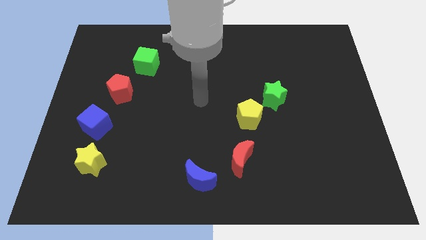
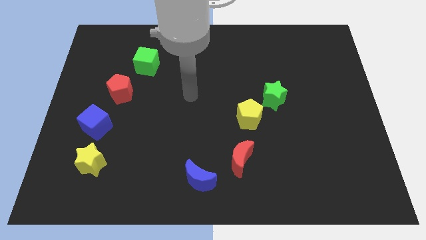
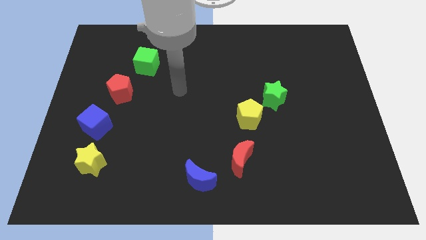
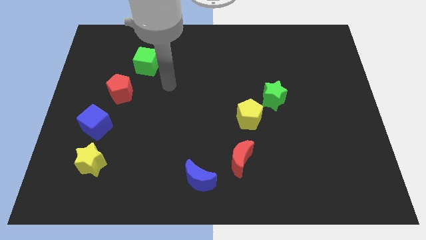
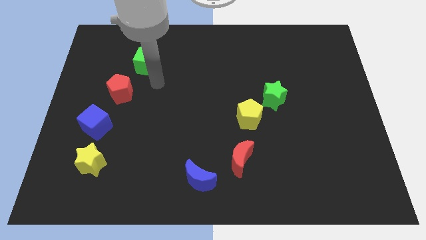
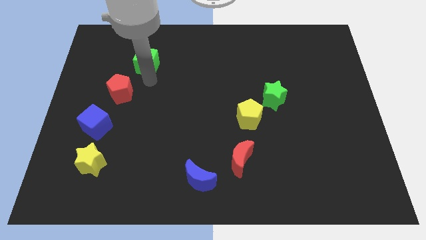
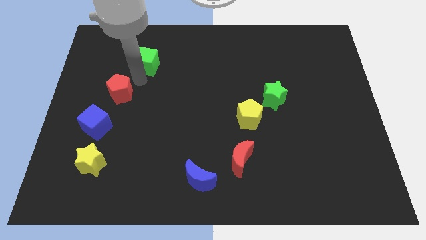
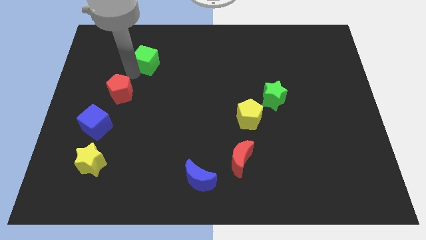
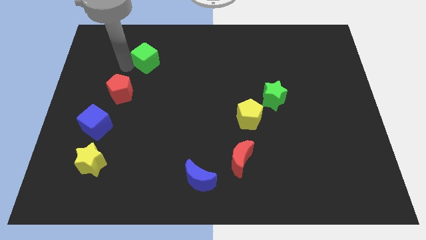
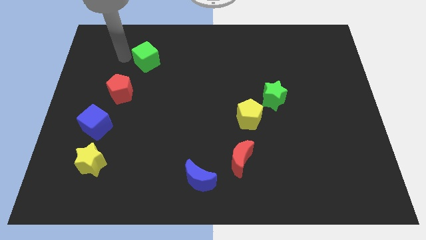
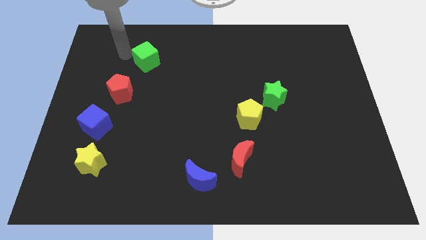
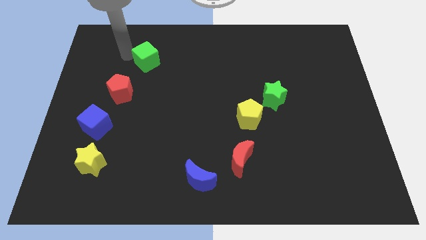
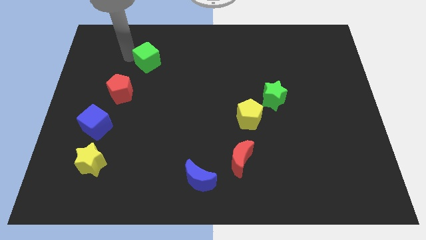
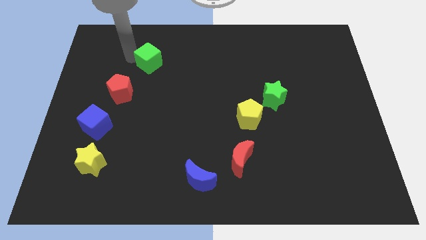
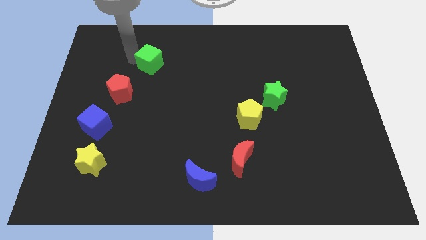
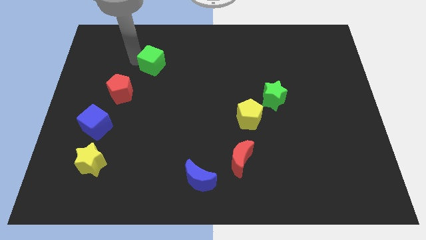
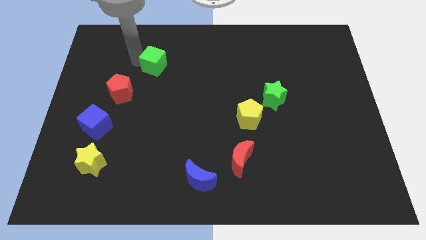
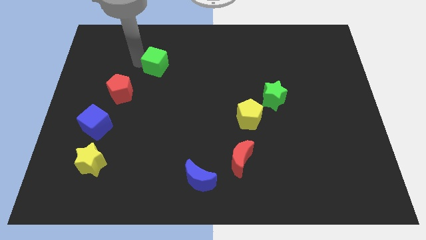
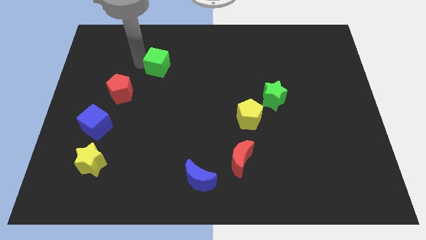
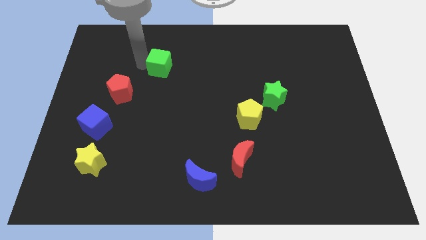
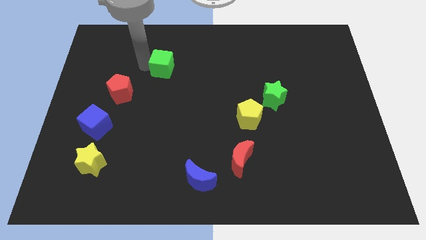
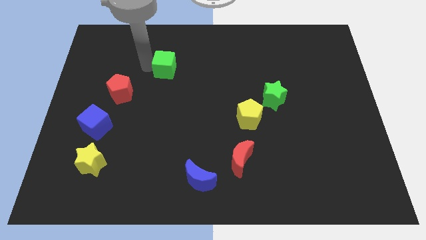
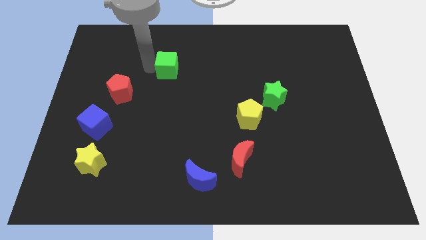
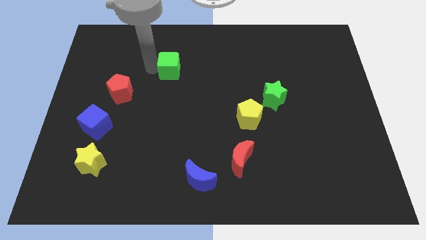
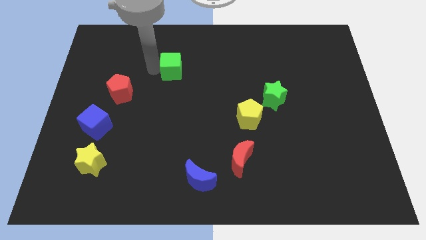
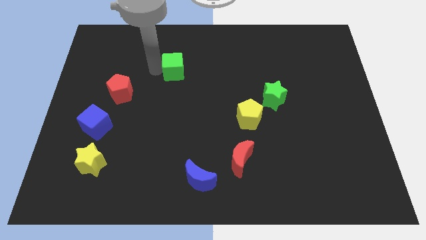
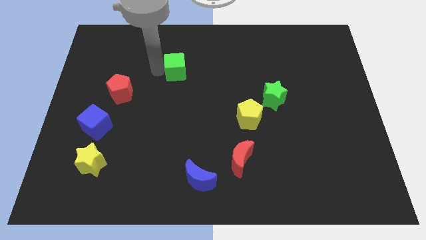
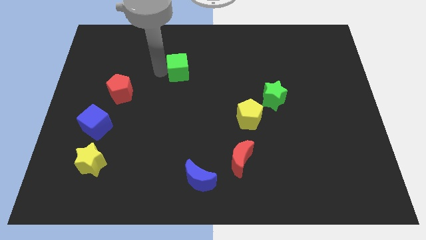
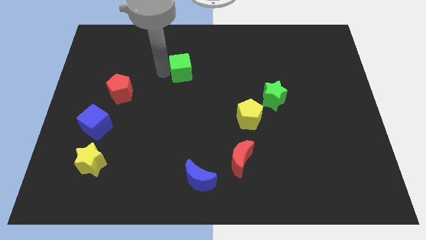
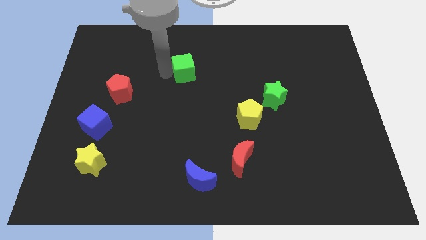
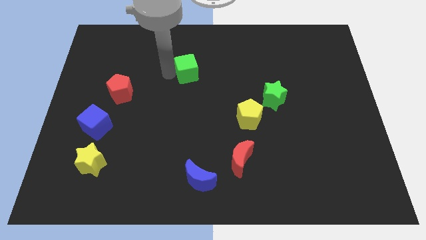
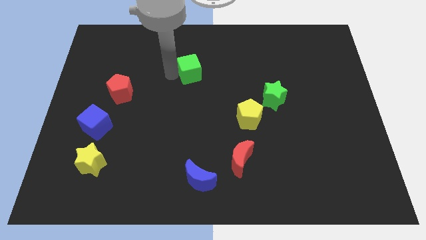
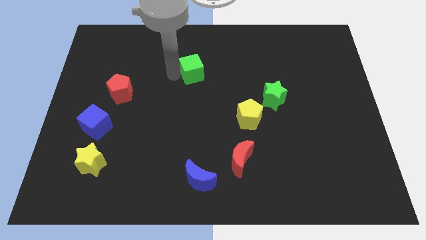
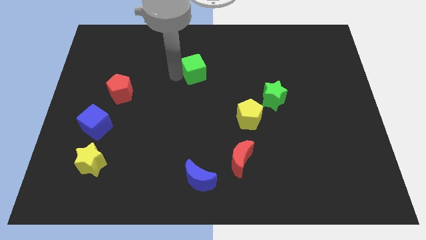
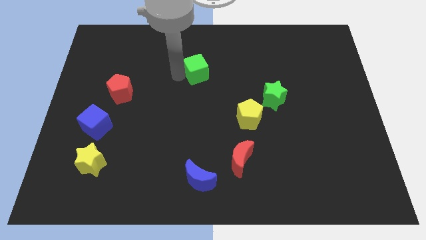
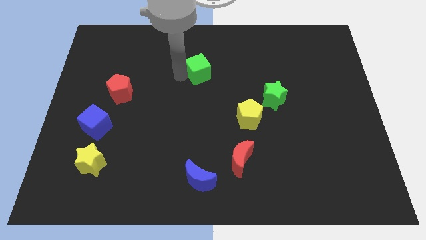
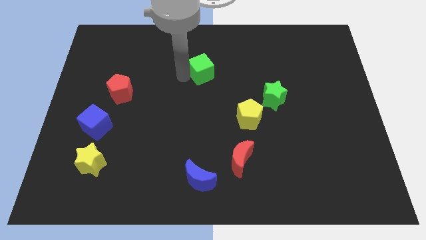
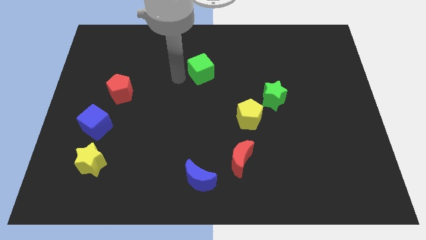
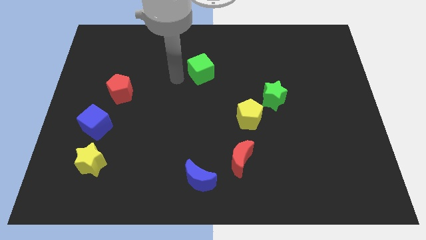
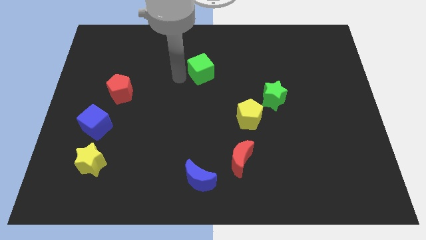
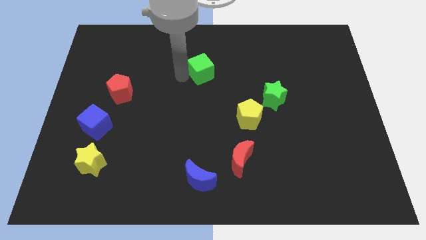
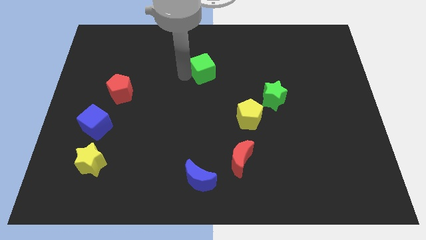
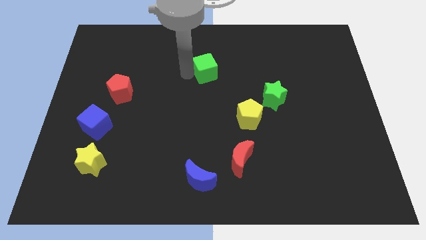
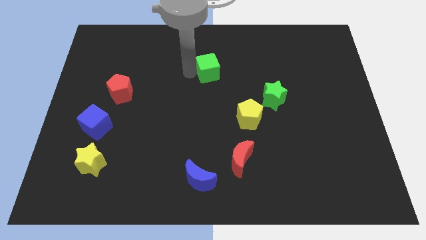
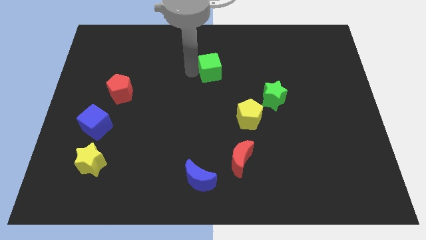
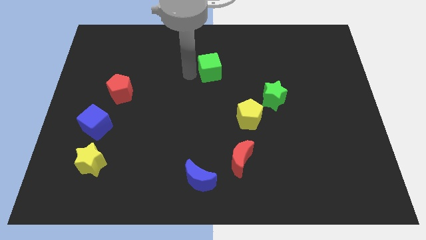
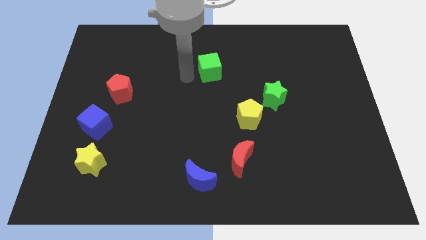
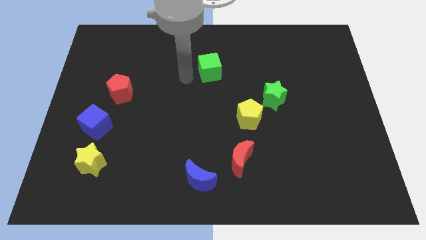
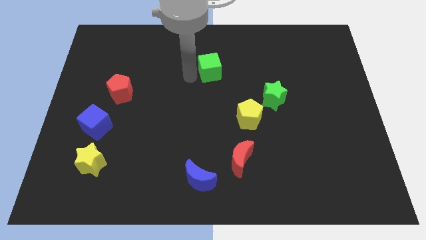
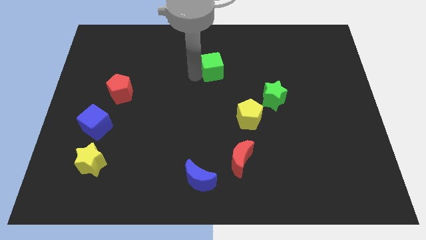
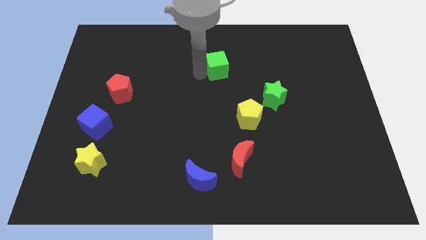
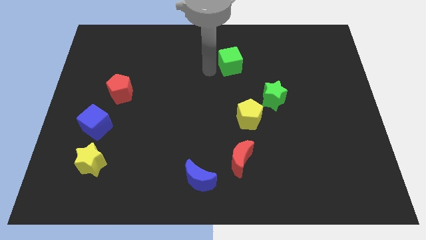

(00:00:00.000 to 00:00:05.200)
move the green cube to the right

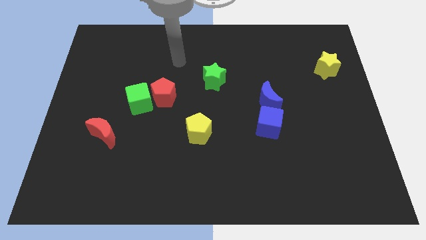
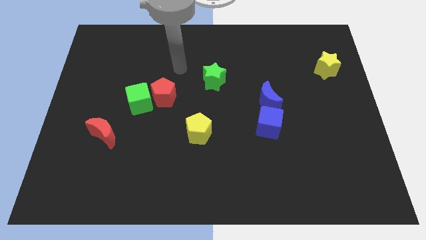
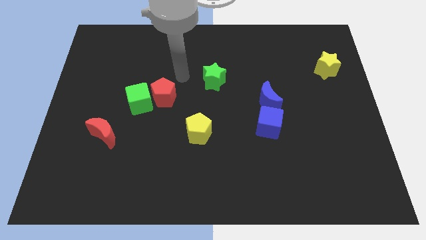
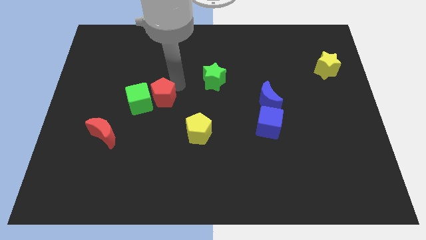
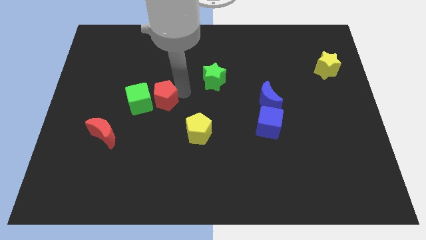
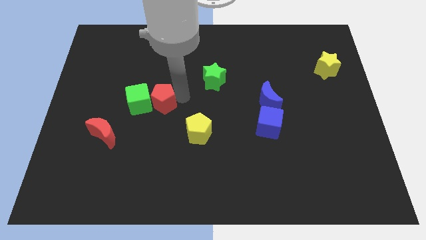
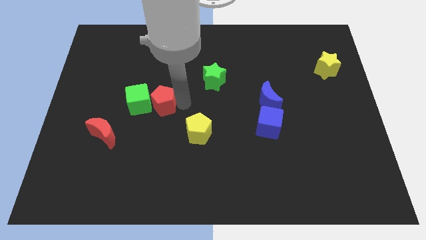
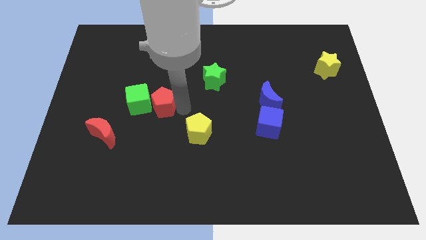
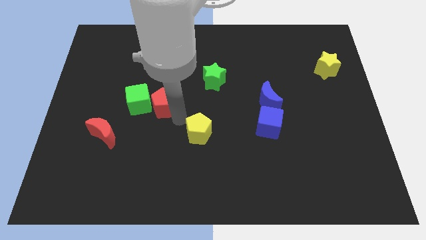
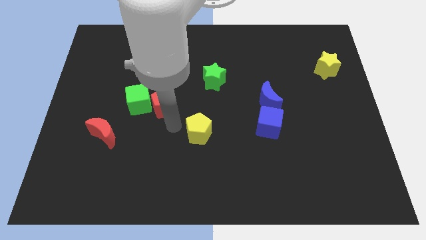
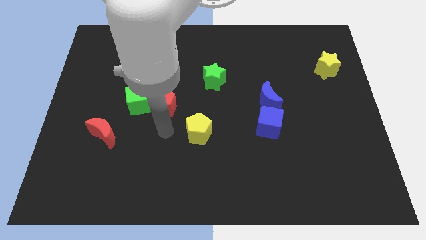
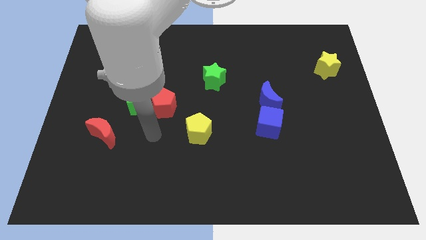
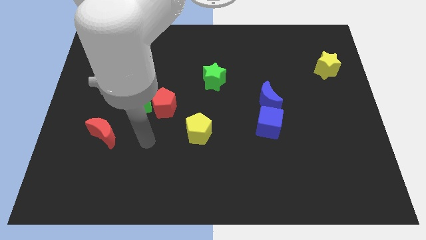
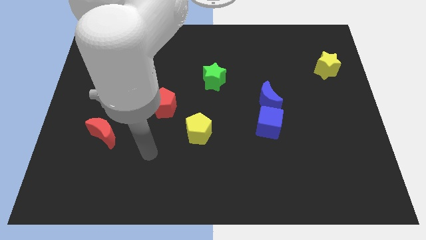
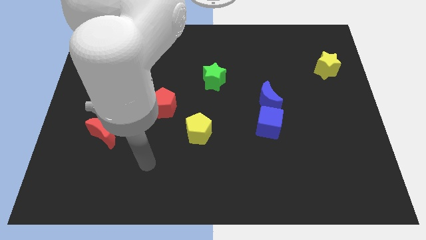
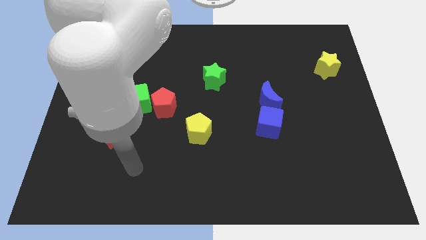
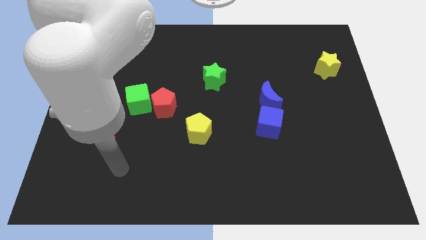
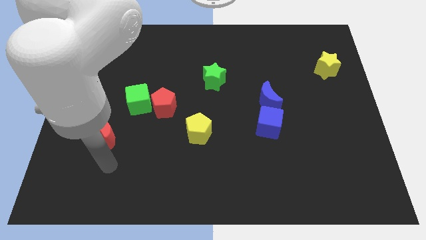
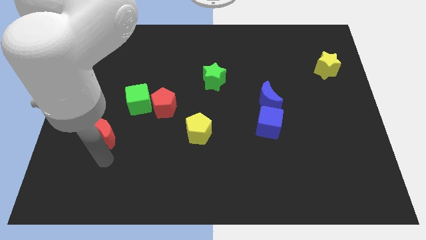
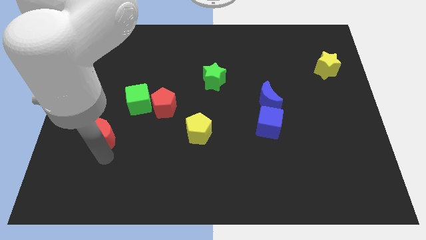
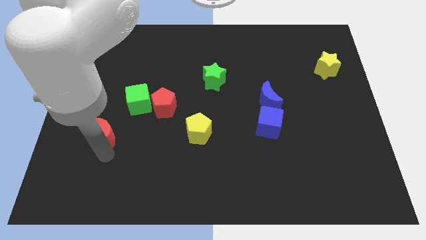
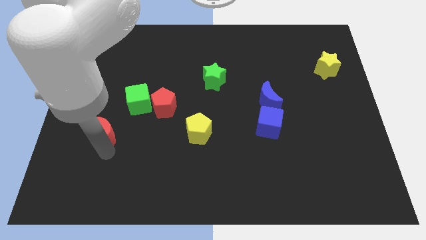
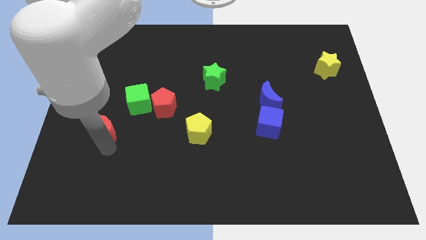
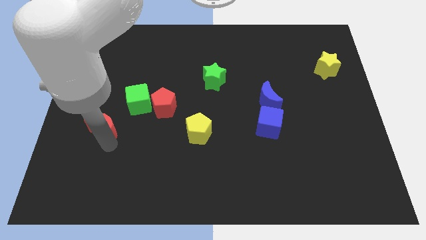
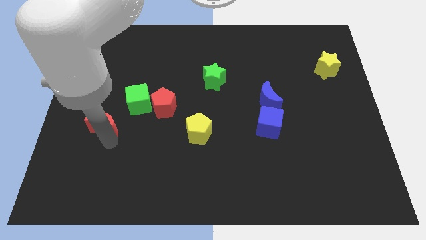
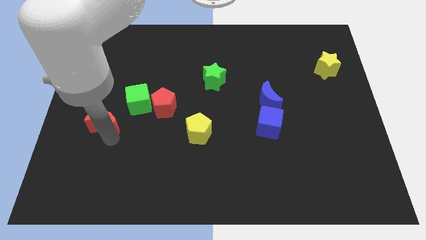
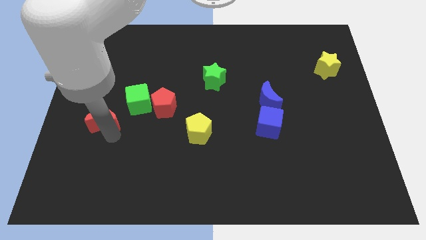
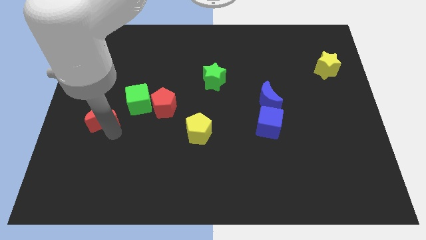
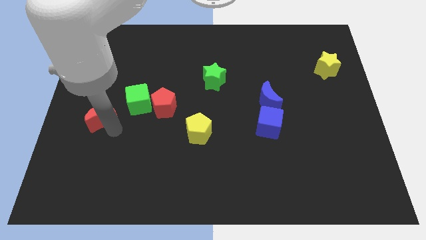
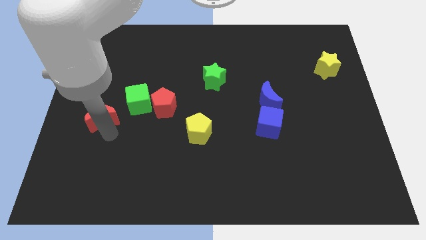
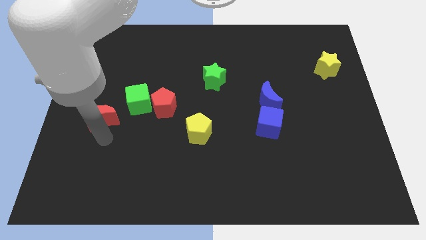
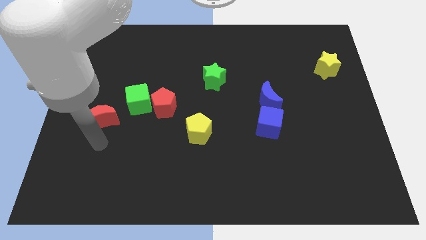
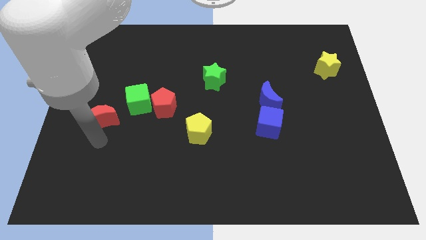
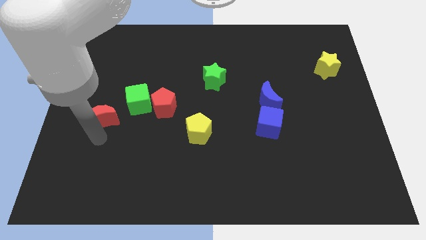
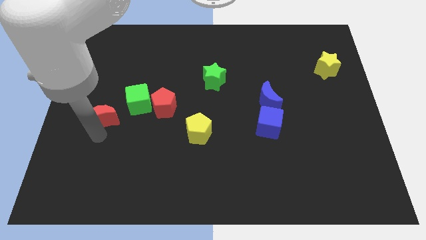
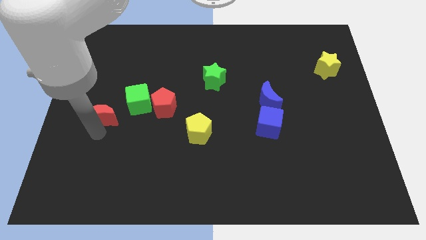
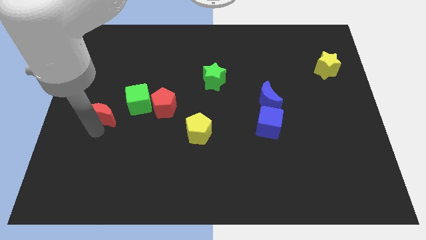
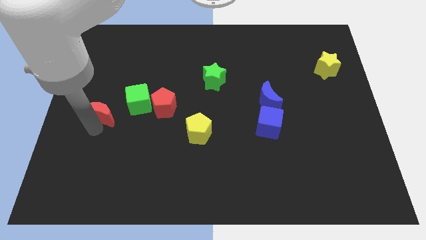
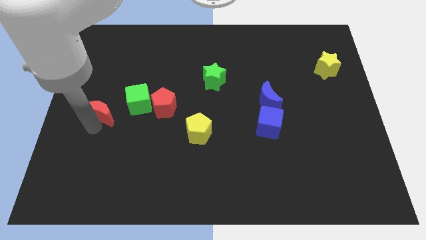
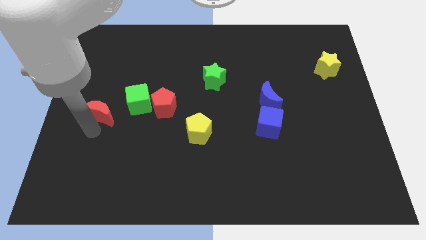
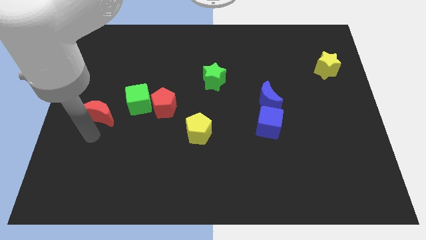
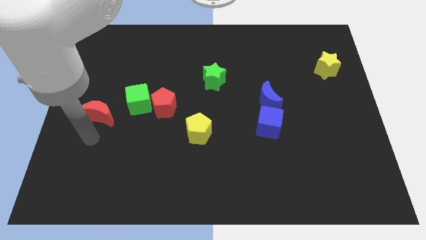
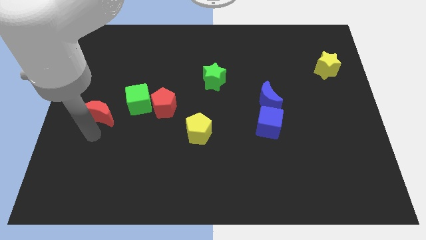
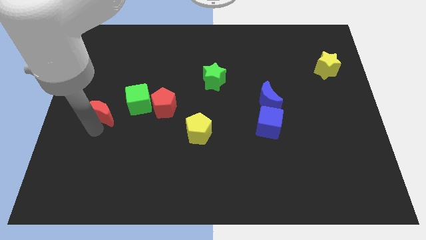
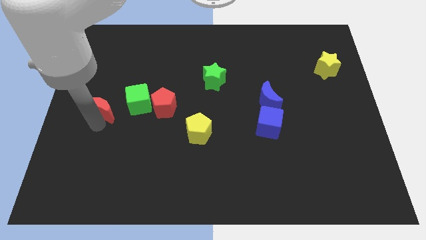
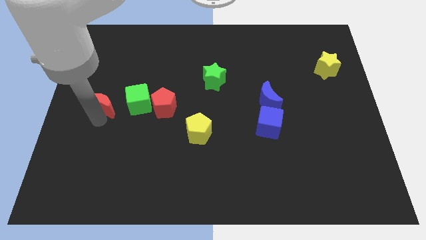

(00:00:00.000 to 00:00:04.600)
slightly push the red moon up
